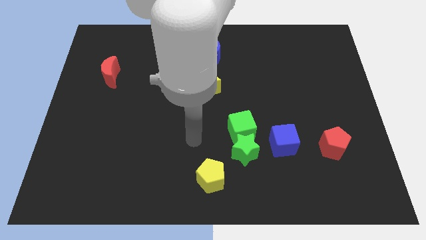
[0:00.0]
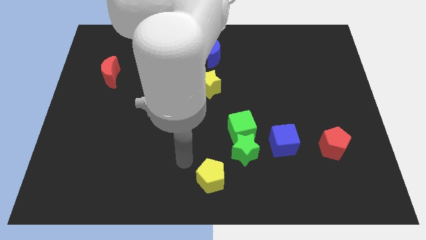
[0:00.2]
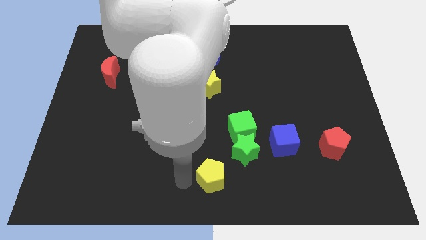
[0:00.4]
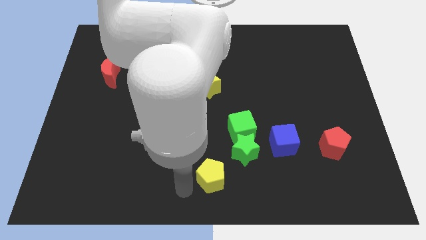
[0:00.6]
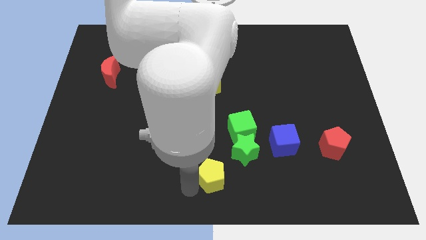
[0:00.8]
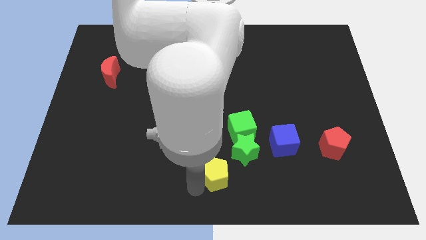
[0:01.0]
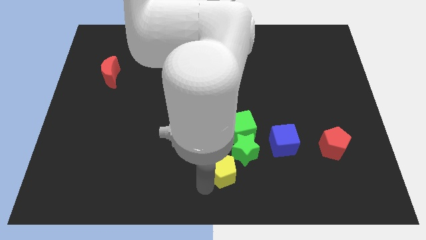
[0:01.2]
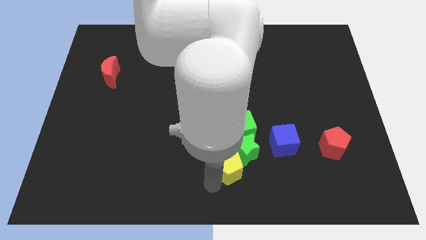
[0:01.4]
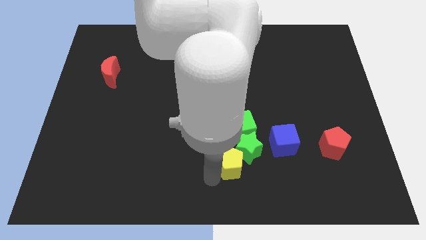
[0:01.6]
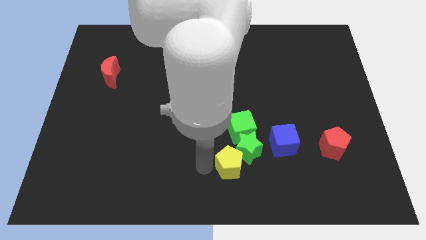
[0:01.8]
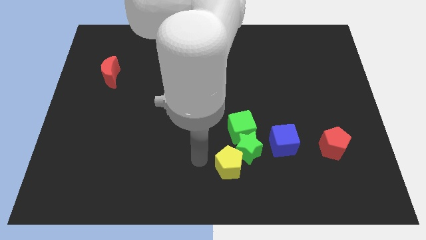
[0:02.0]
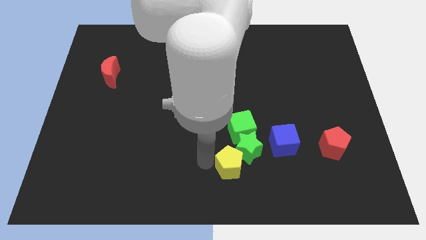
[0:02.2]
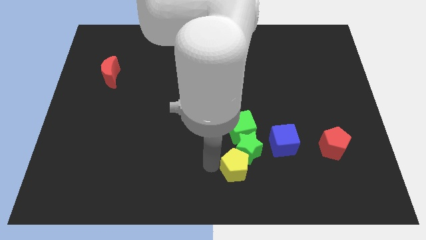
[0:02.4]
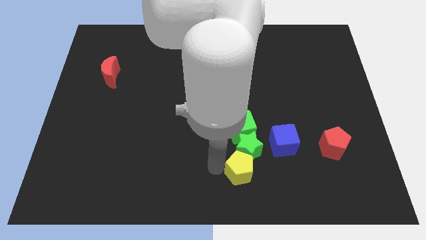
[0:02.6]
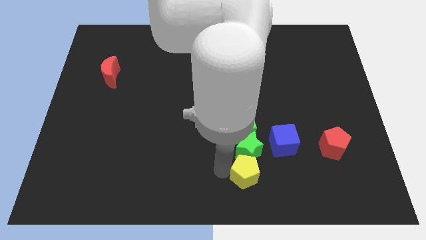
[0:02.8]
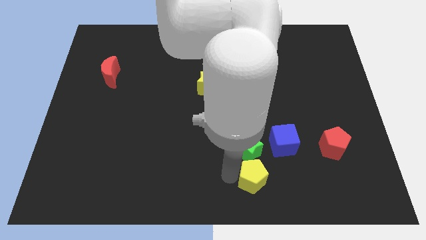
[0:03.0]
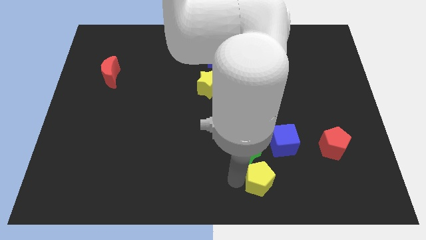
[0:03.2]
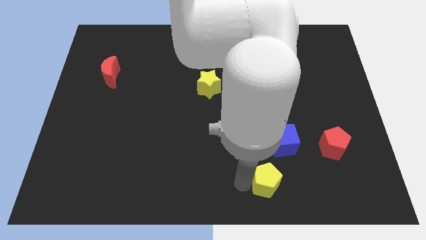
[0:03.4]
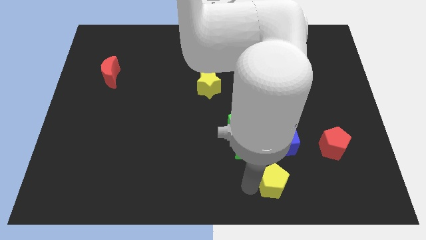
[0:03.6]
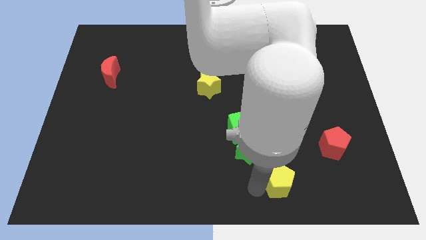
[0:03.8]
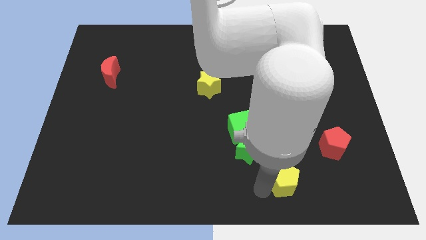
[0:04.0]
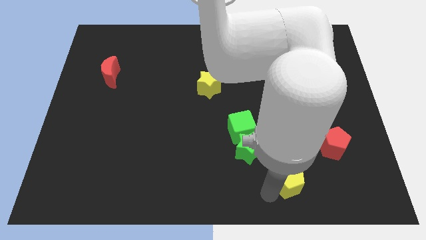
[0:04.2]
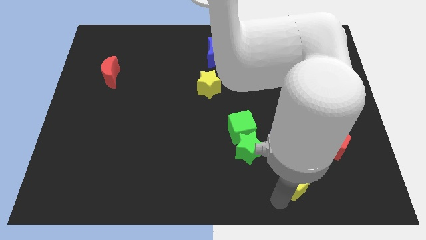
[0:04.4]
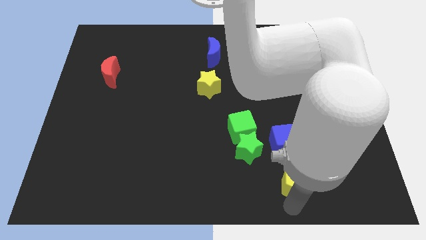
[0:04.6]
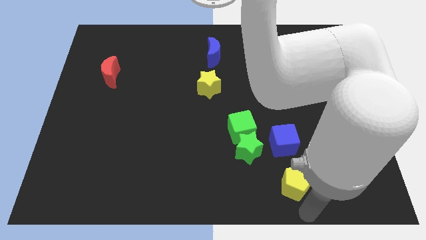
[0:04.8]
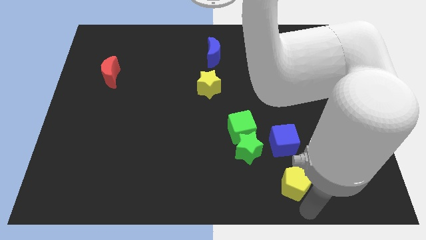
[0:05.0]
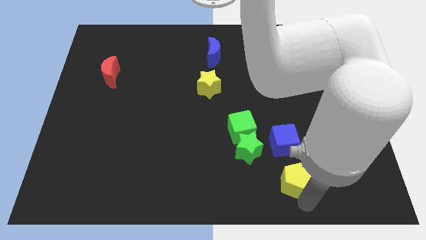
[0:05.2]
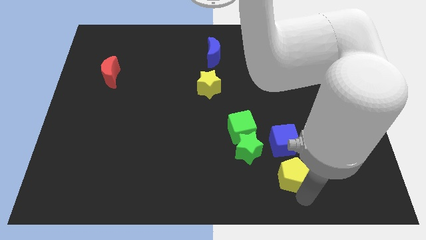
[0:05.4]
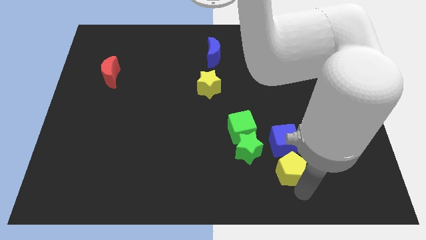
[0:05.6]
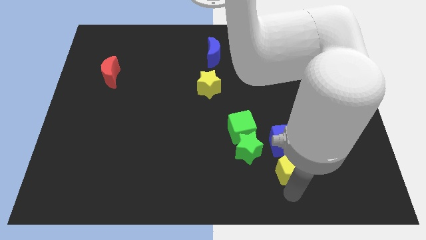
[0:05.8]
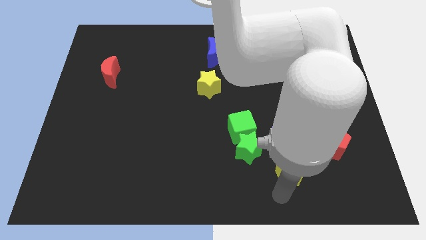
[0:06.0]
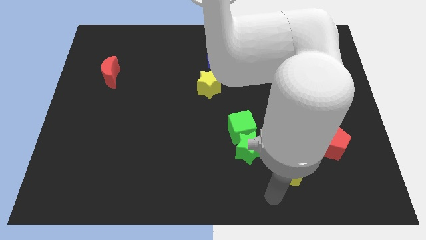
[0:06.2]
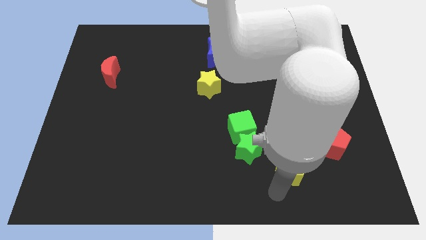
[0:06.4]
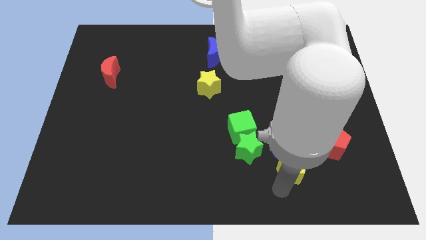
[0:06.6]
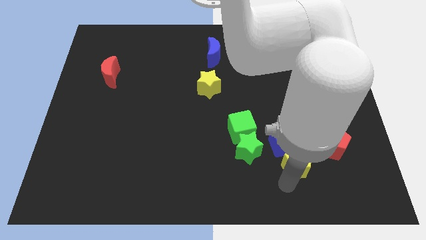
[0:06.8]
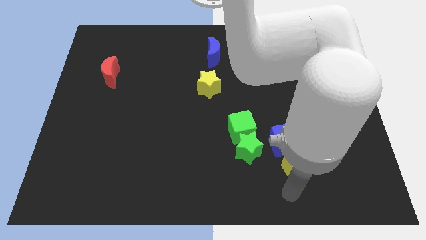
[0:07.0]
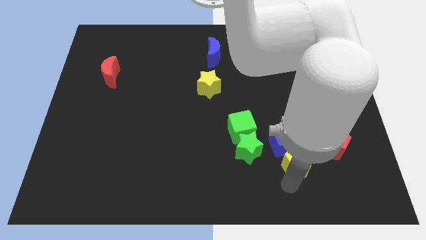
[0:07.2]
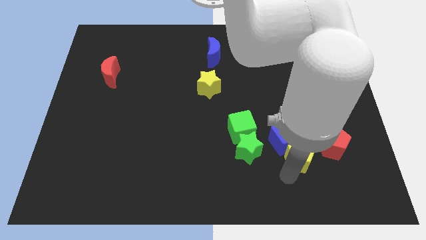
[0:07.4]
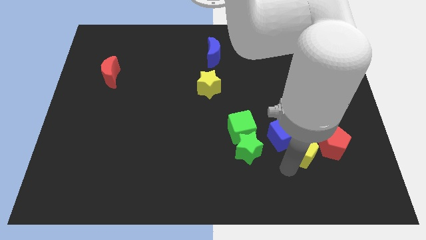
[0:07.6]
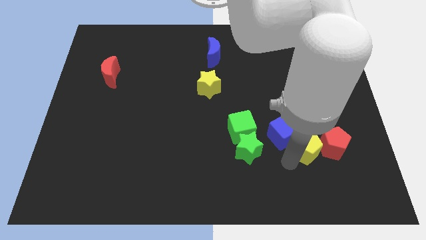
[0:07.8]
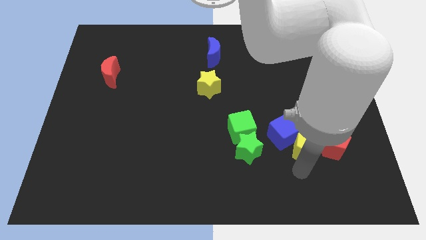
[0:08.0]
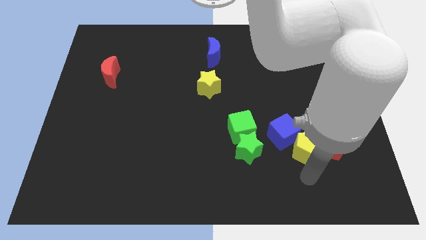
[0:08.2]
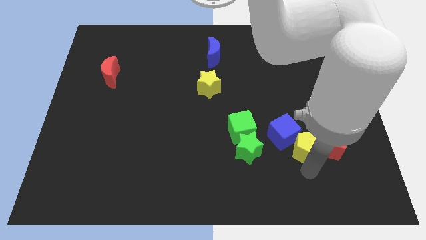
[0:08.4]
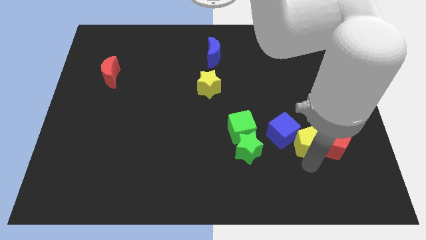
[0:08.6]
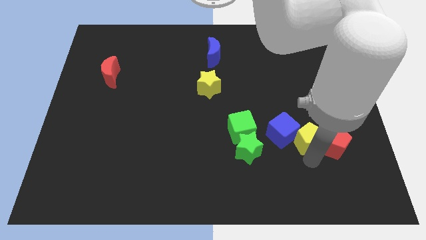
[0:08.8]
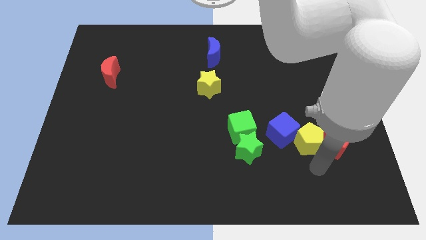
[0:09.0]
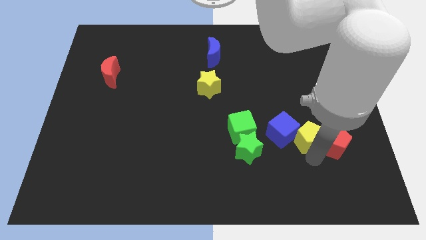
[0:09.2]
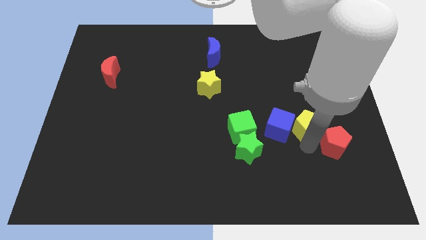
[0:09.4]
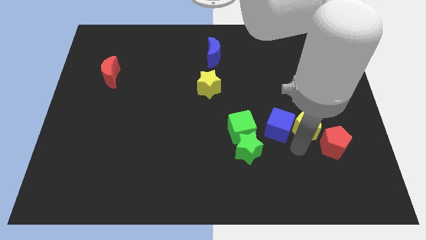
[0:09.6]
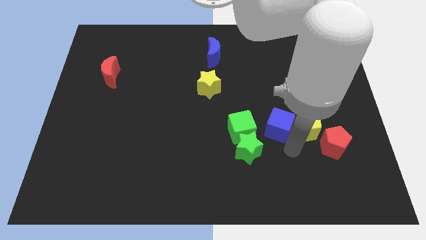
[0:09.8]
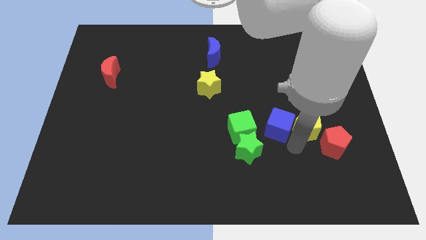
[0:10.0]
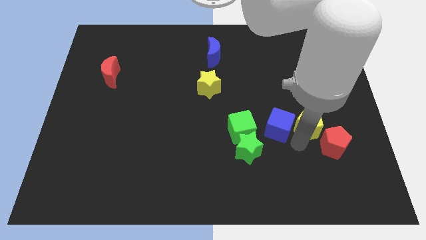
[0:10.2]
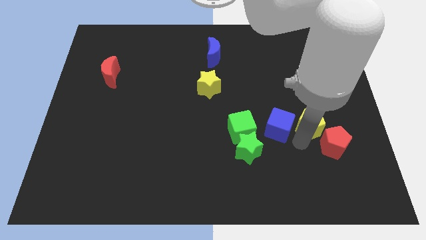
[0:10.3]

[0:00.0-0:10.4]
put the yellow pentagon to the top of the red pentagon

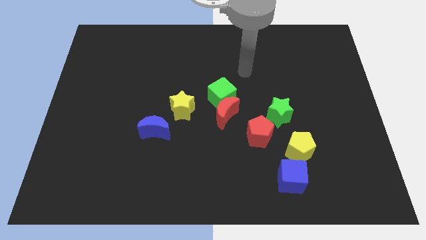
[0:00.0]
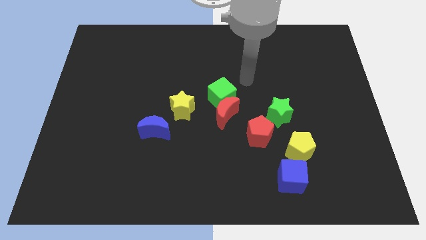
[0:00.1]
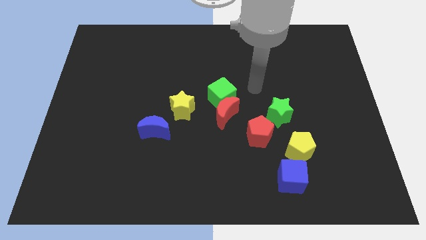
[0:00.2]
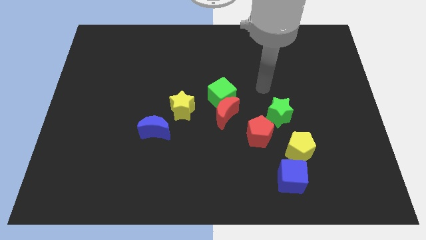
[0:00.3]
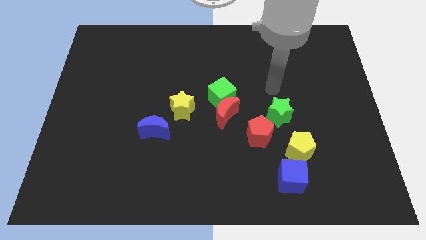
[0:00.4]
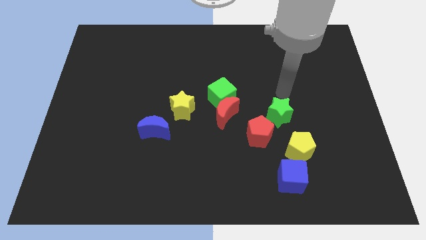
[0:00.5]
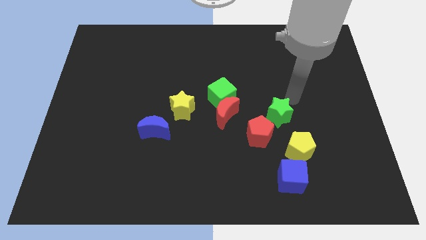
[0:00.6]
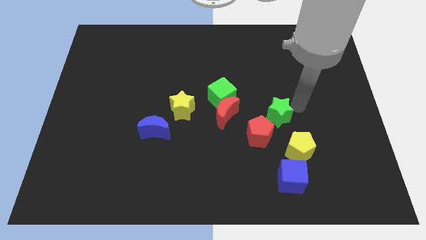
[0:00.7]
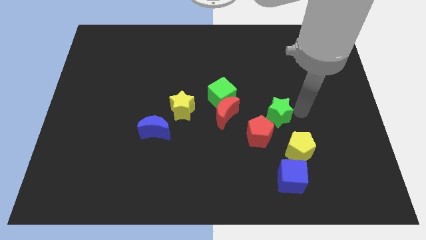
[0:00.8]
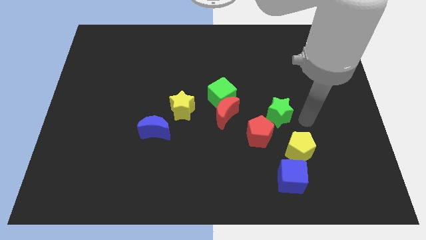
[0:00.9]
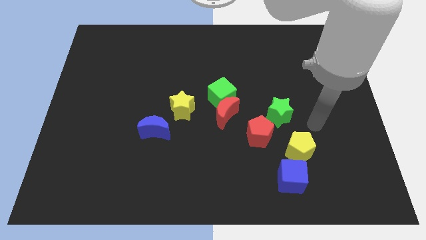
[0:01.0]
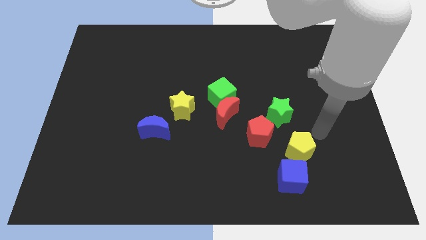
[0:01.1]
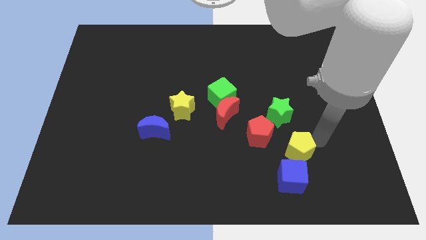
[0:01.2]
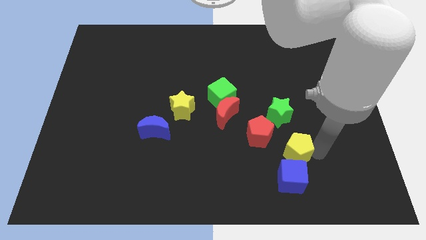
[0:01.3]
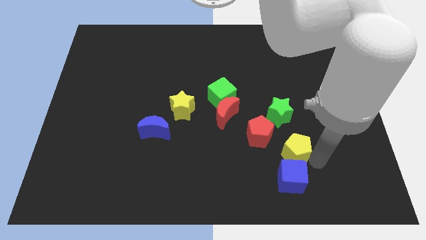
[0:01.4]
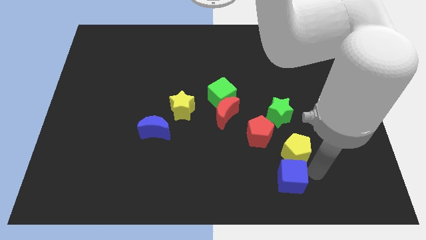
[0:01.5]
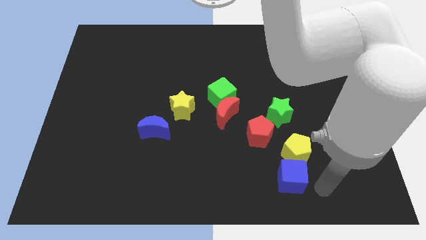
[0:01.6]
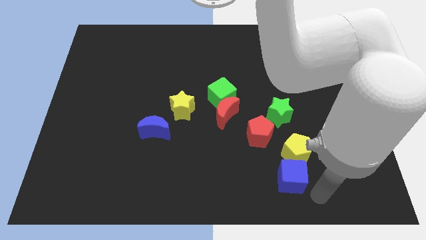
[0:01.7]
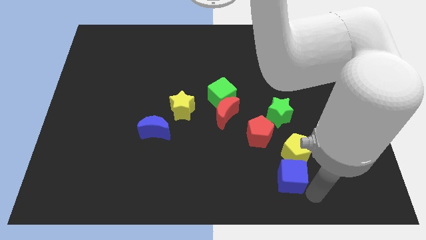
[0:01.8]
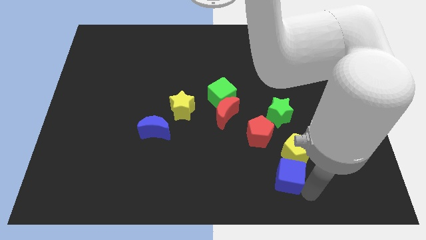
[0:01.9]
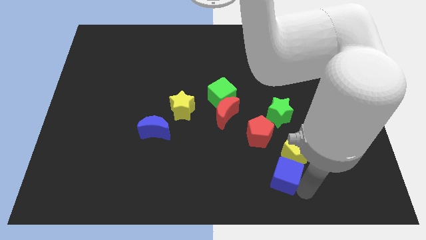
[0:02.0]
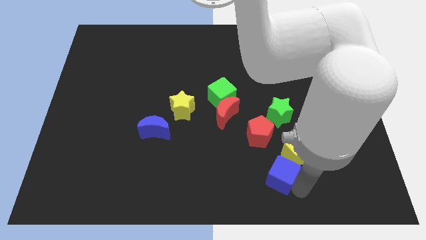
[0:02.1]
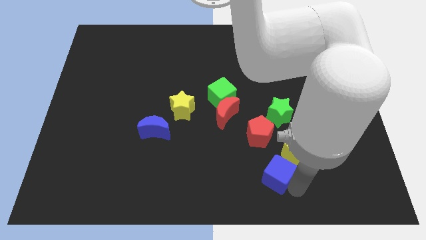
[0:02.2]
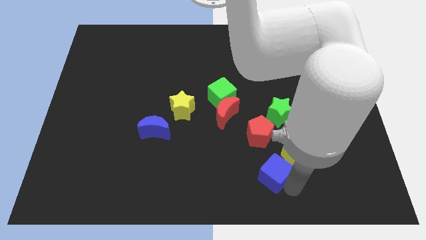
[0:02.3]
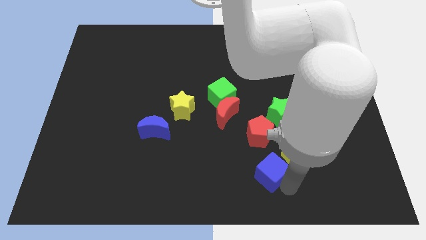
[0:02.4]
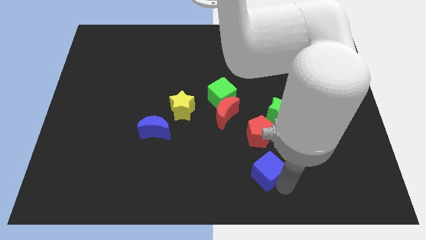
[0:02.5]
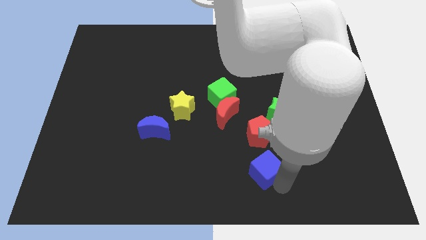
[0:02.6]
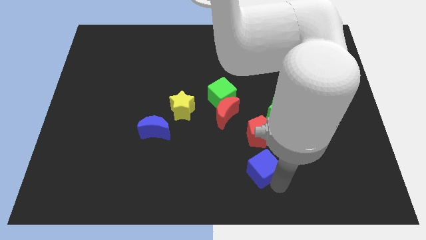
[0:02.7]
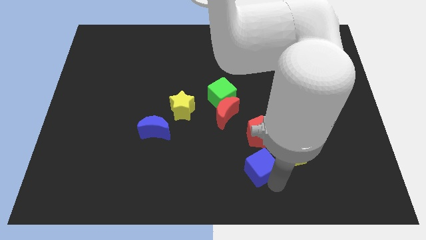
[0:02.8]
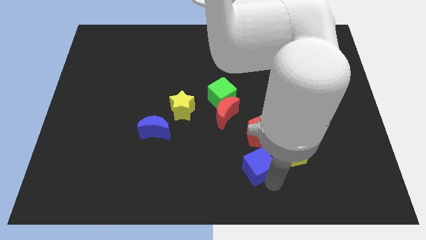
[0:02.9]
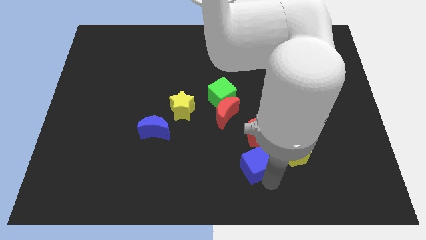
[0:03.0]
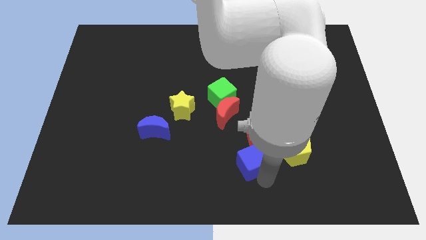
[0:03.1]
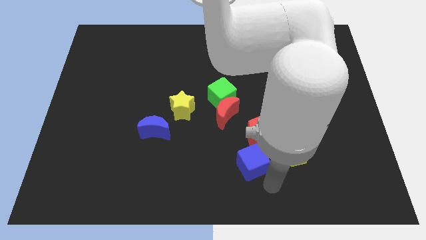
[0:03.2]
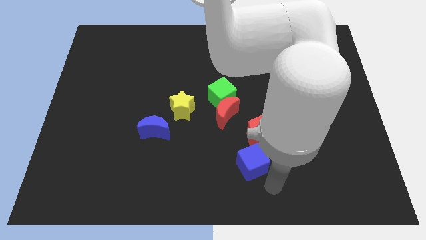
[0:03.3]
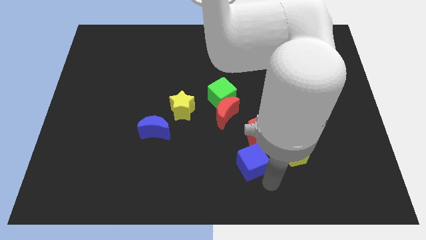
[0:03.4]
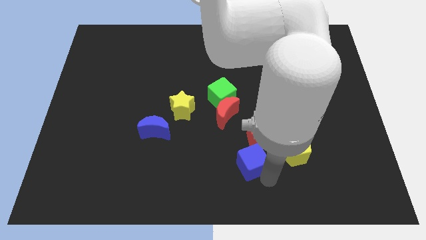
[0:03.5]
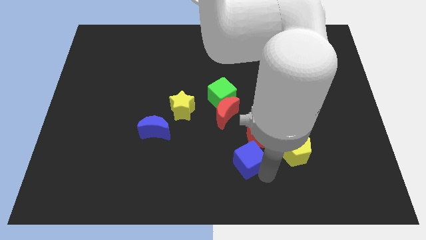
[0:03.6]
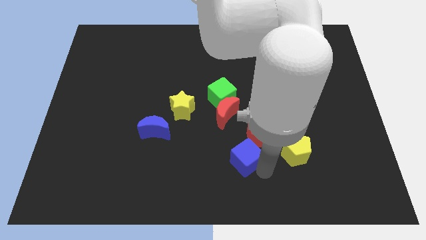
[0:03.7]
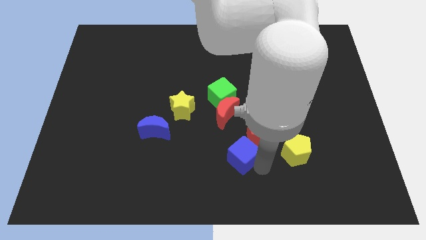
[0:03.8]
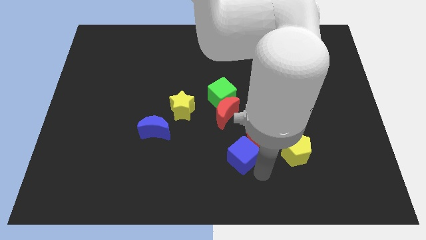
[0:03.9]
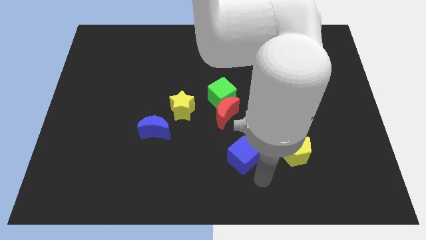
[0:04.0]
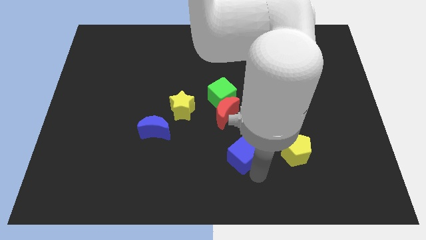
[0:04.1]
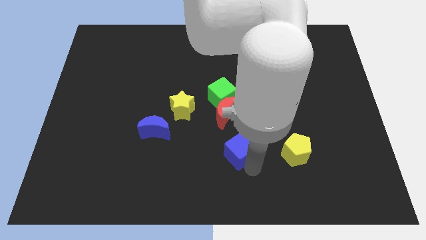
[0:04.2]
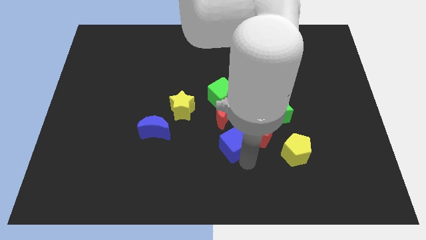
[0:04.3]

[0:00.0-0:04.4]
put the blue cube to the bottom side of the green cube
